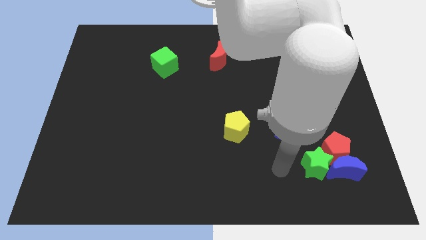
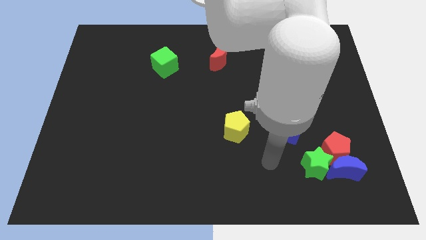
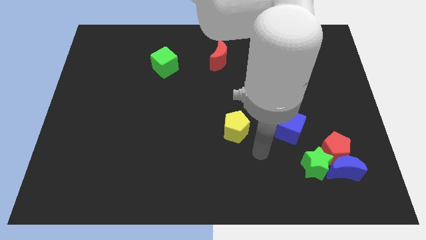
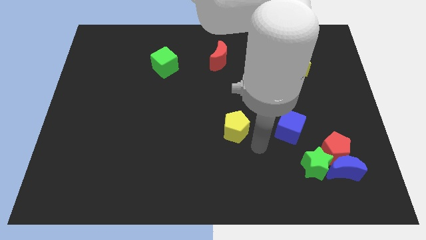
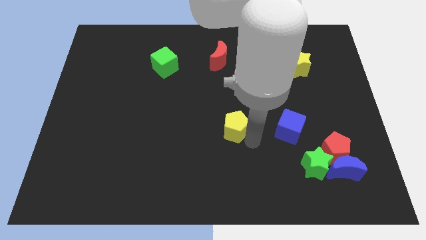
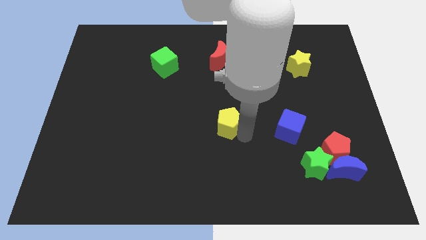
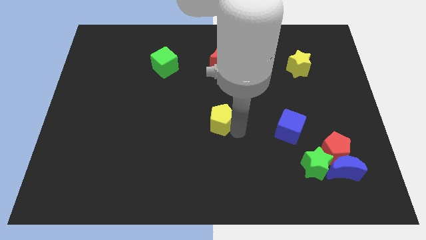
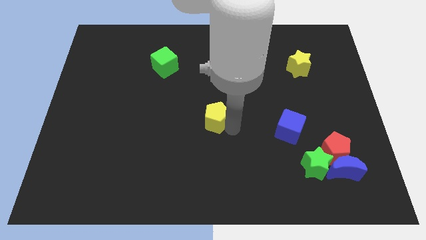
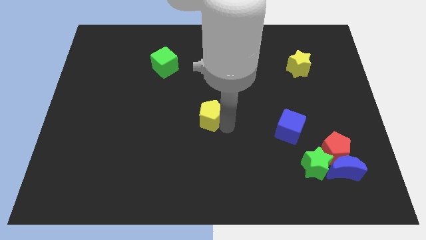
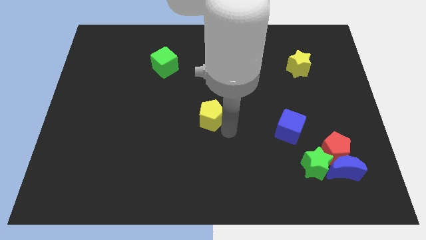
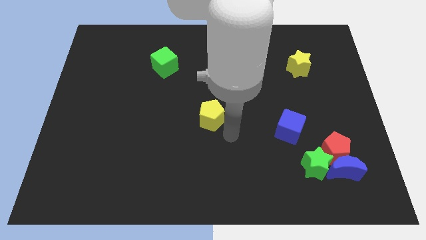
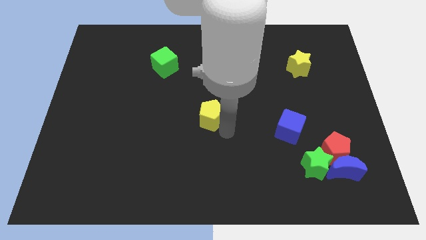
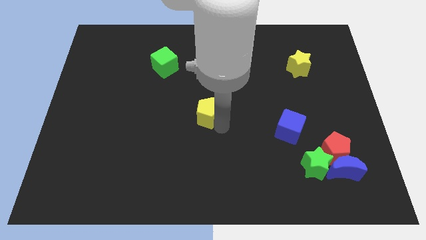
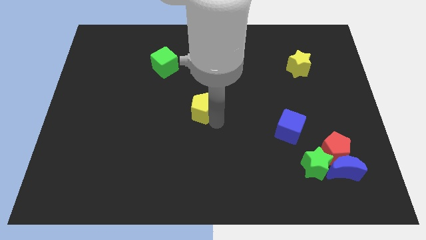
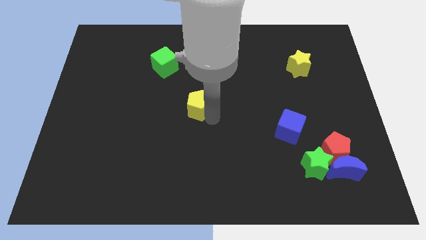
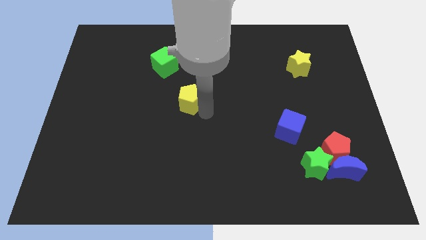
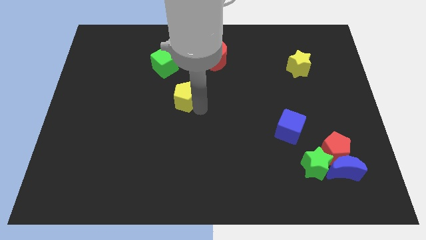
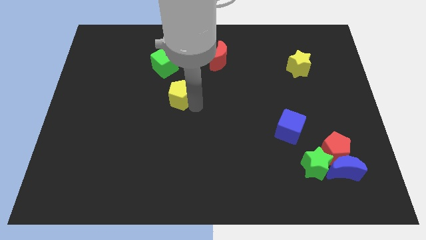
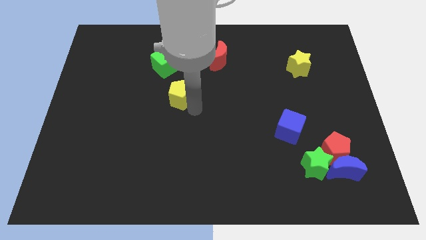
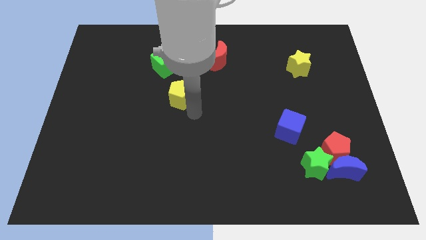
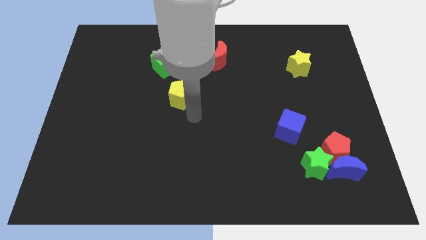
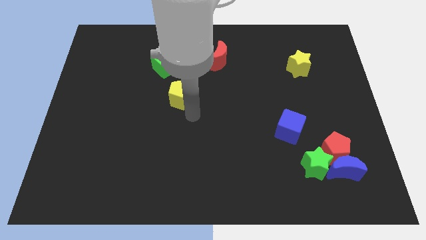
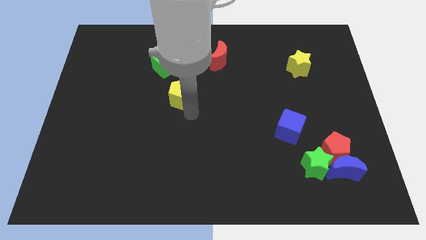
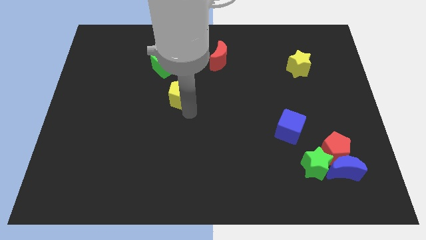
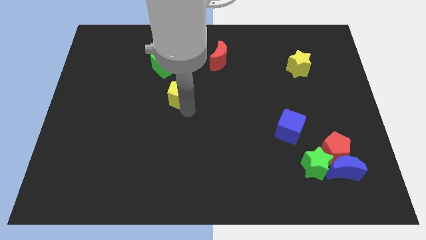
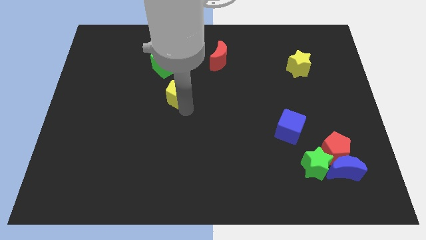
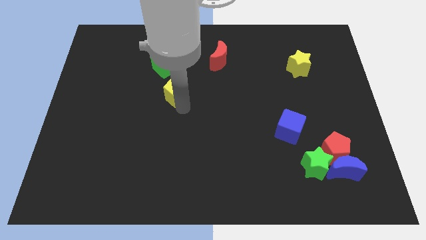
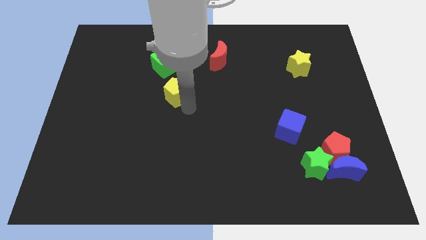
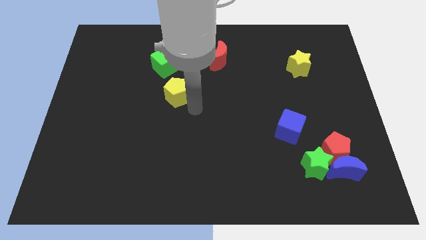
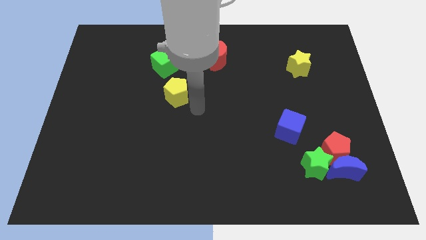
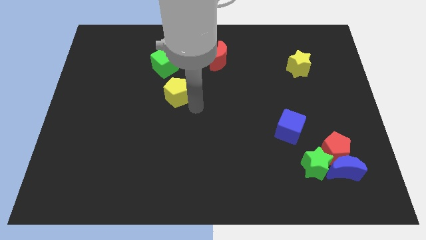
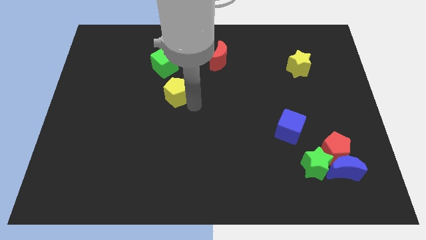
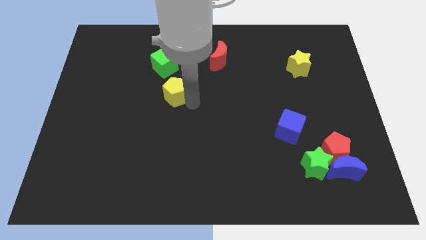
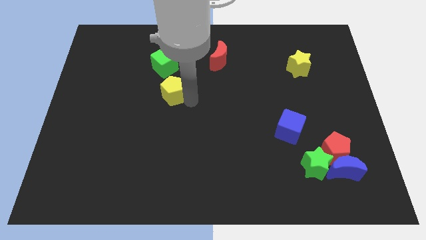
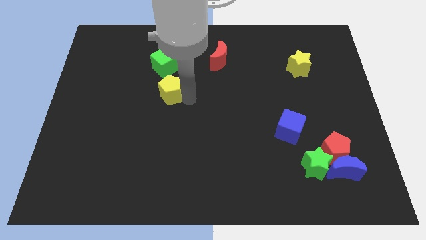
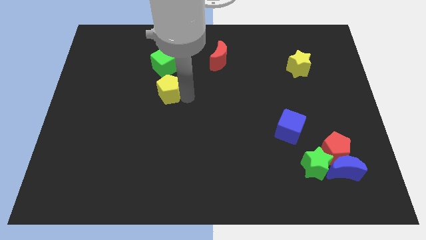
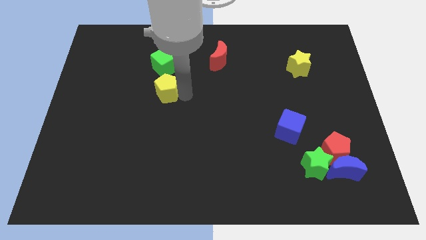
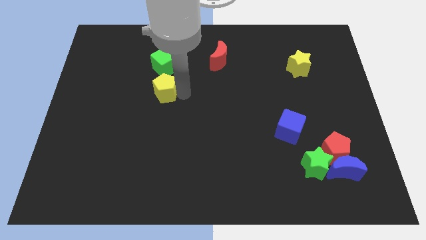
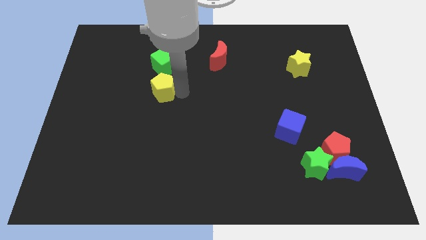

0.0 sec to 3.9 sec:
push the yellow pentagon up and to the left diagonally

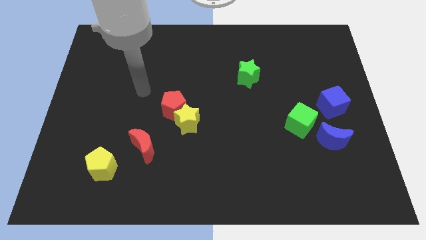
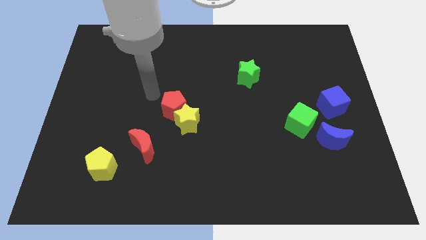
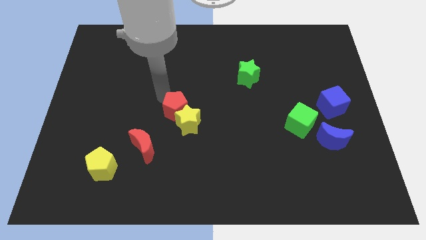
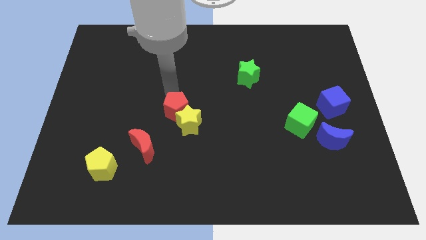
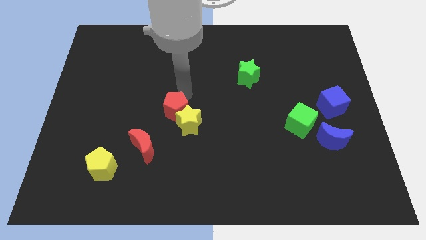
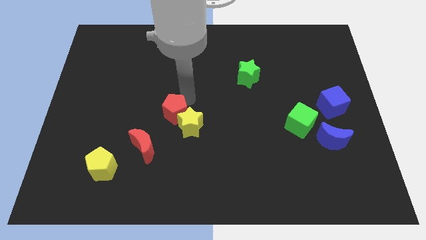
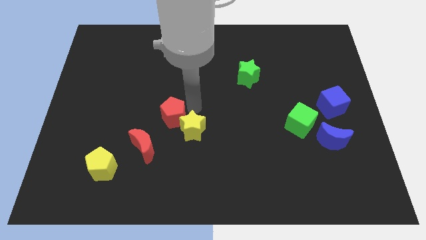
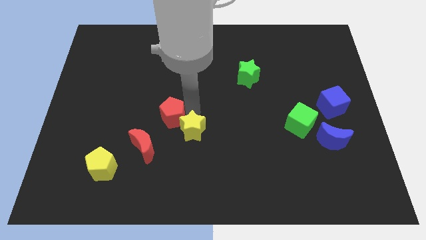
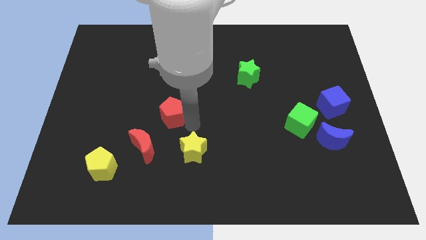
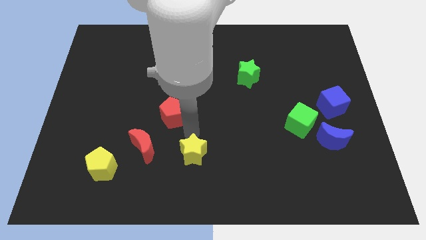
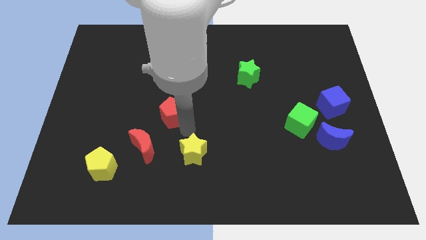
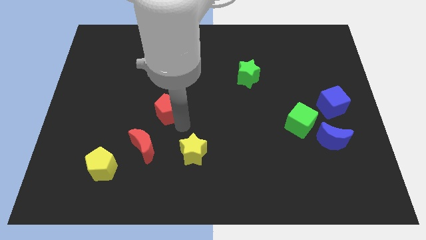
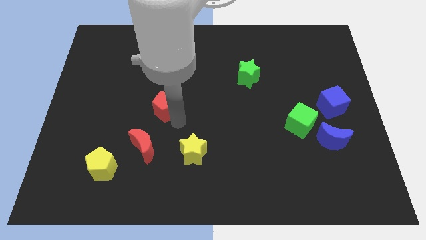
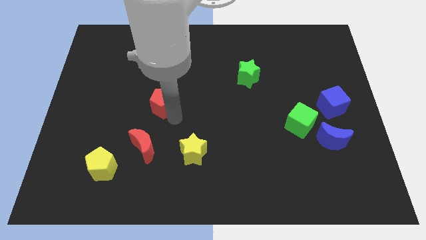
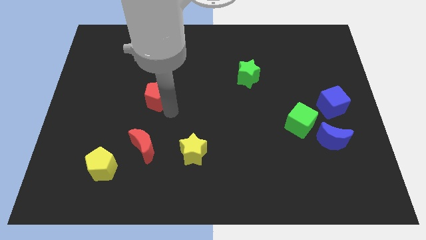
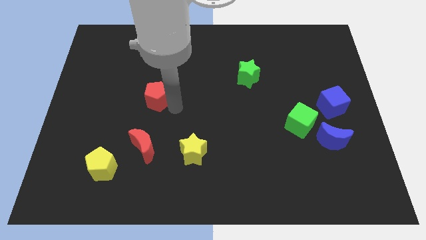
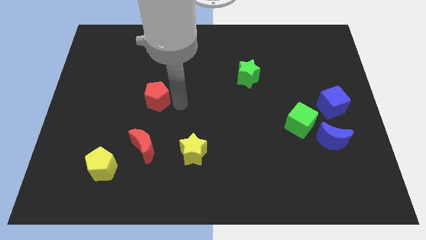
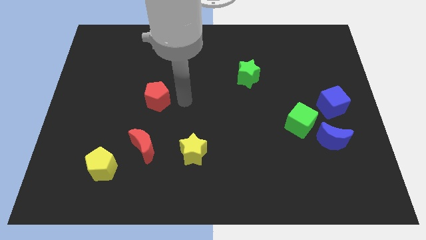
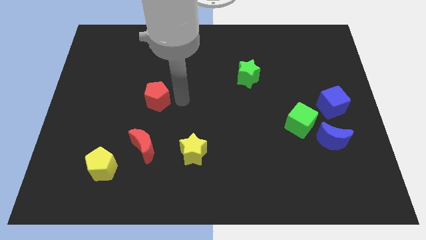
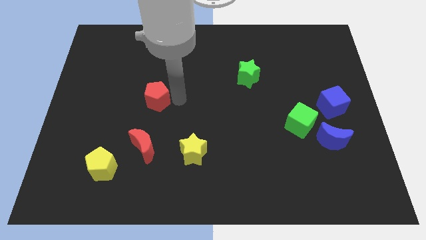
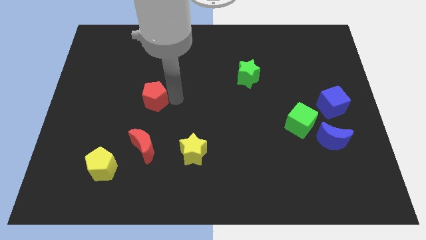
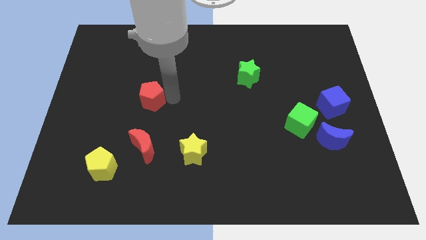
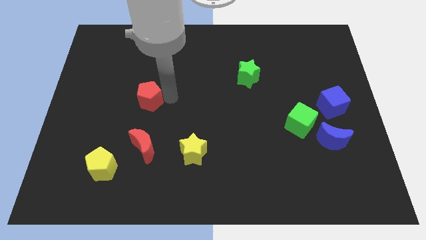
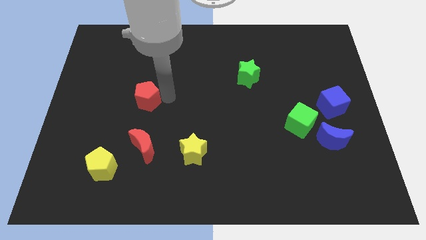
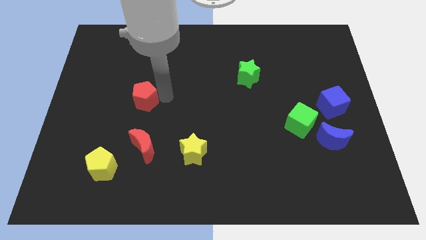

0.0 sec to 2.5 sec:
slightly move the red pentagon left

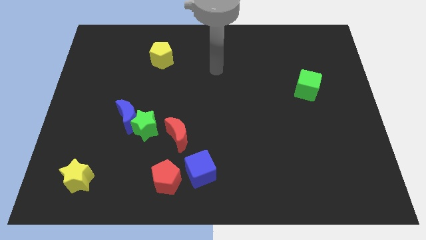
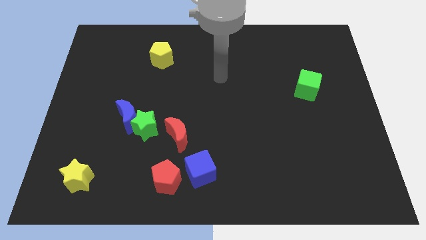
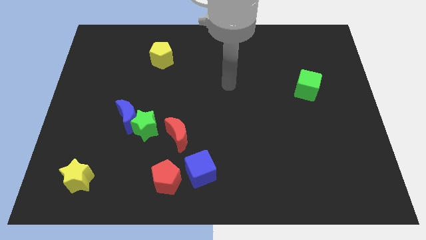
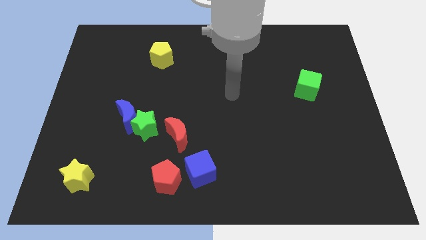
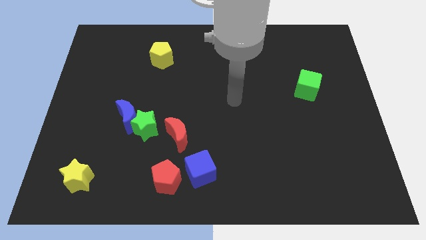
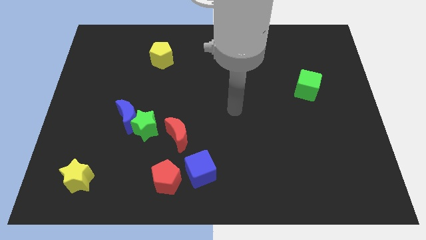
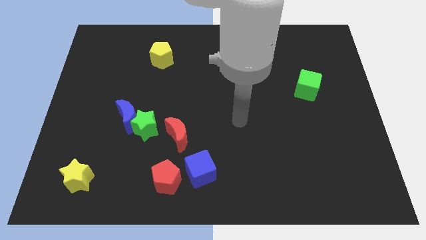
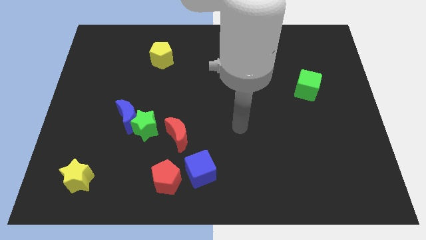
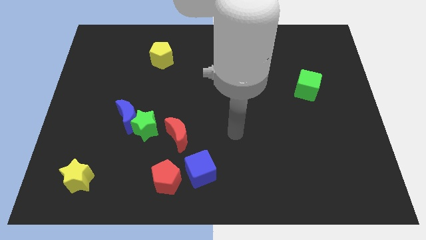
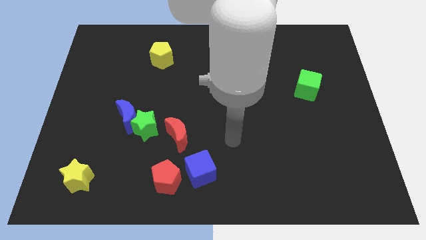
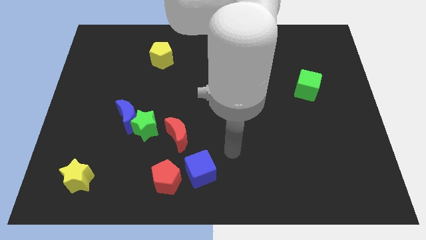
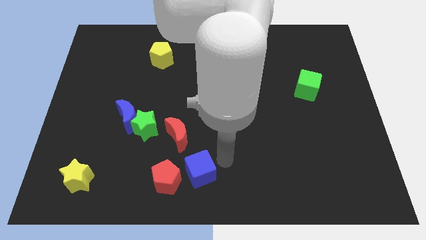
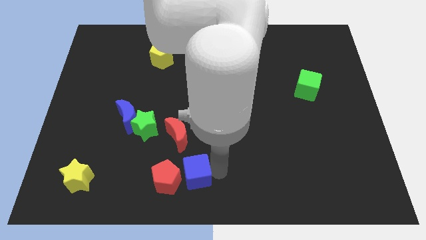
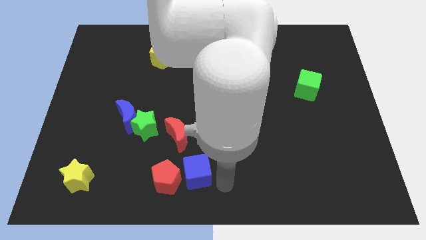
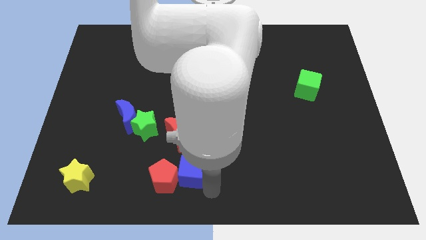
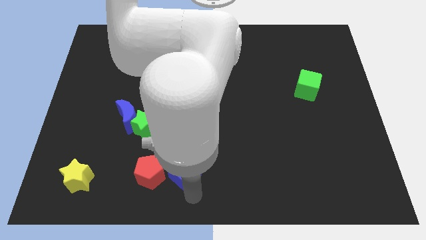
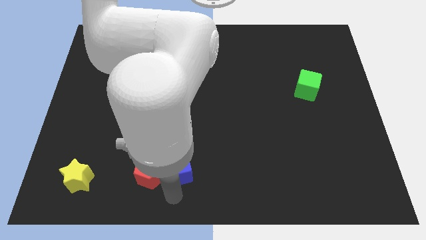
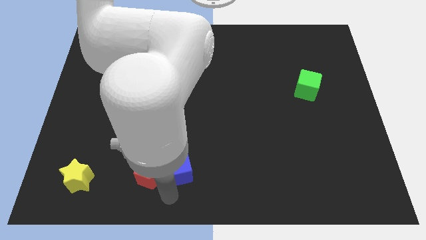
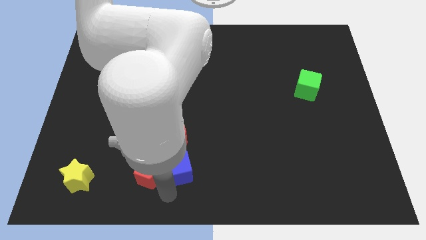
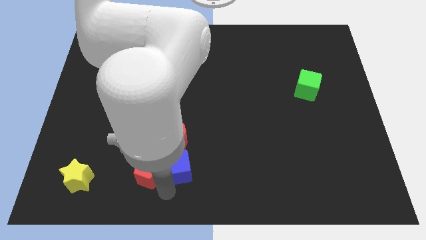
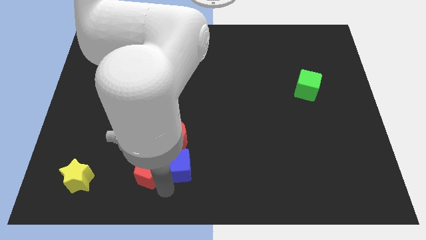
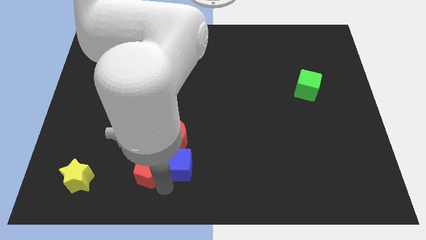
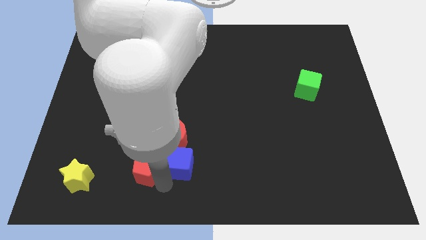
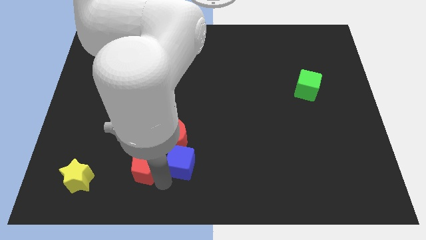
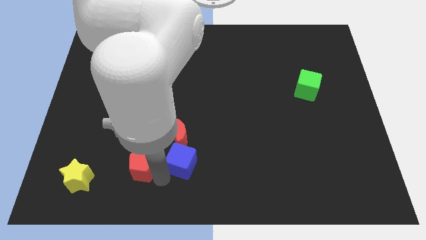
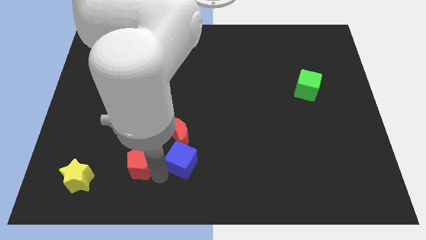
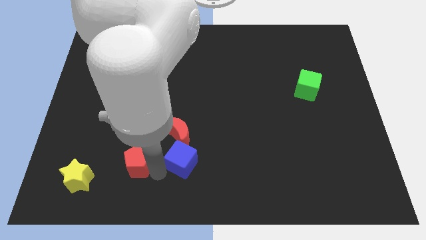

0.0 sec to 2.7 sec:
move the red pentagon up and left somewhat
